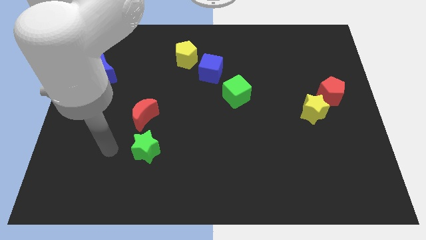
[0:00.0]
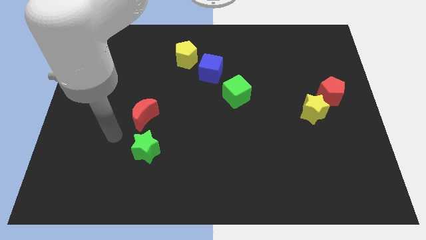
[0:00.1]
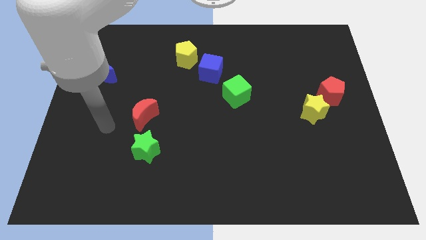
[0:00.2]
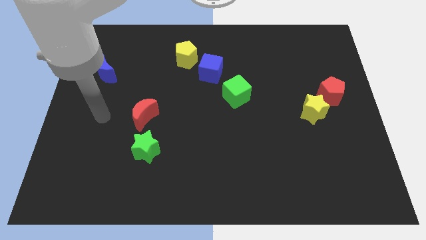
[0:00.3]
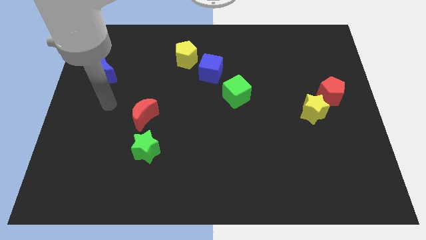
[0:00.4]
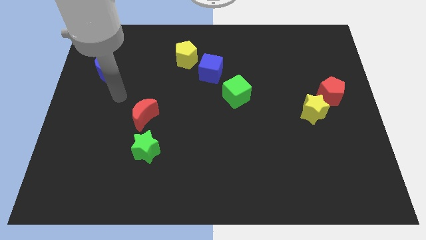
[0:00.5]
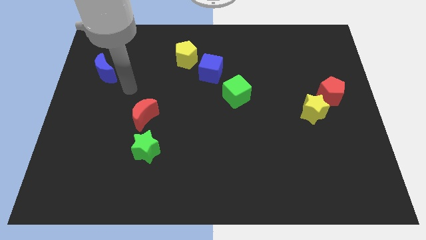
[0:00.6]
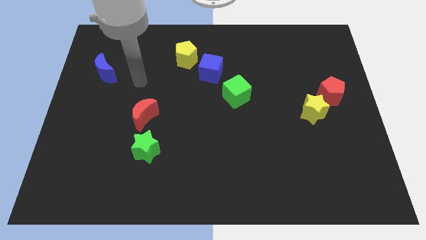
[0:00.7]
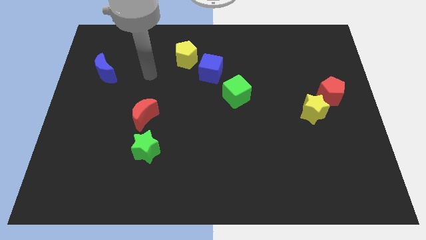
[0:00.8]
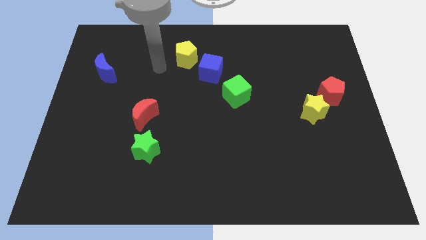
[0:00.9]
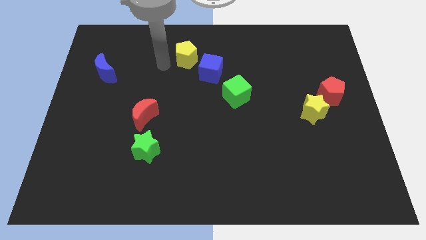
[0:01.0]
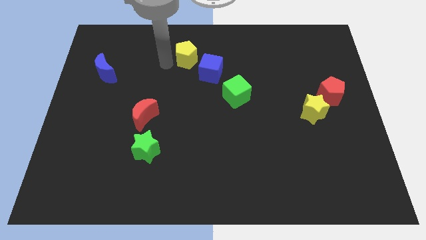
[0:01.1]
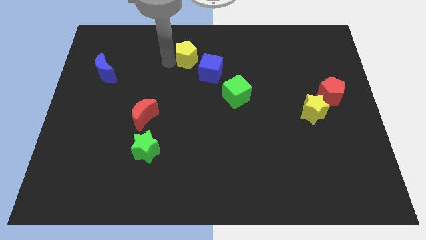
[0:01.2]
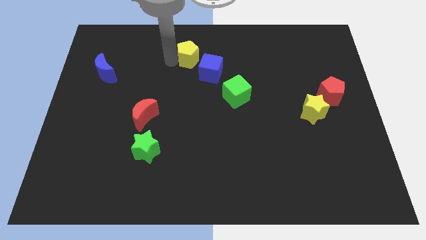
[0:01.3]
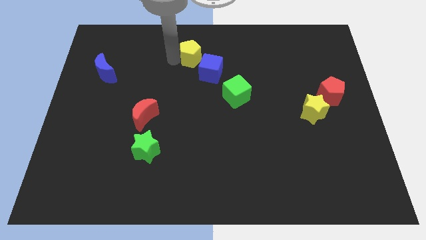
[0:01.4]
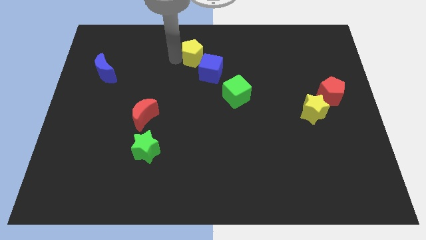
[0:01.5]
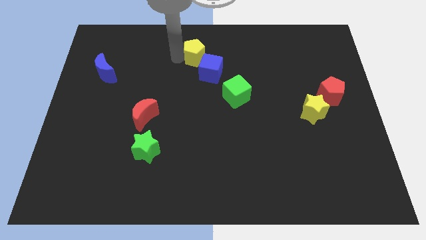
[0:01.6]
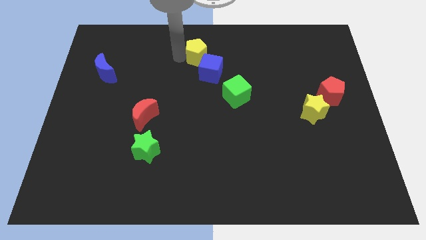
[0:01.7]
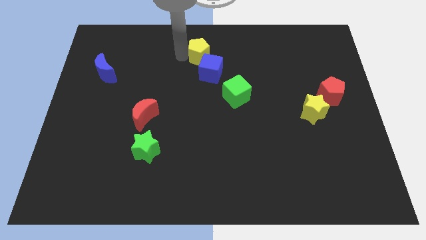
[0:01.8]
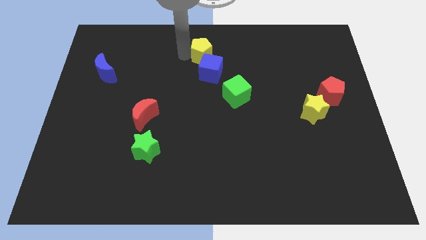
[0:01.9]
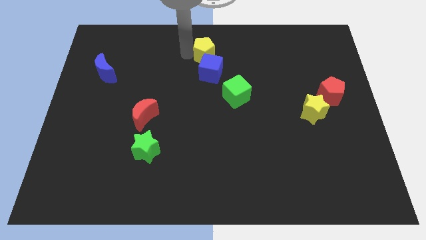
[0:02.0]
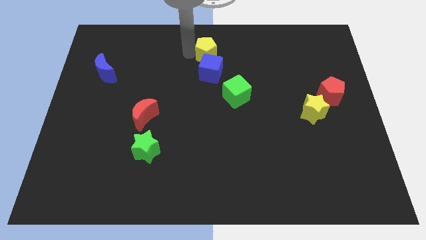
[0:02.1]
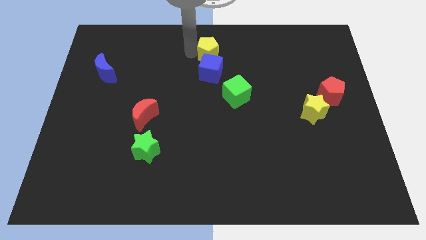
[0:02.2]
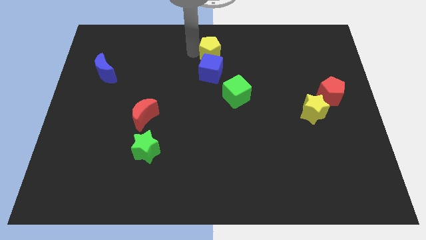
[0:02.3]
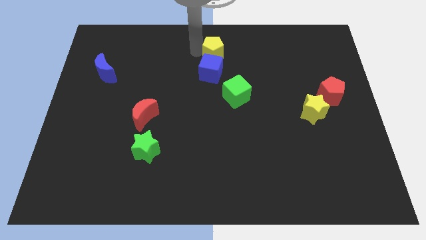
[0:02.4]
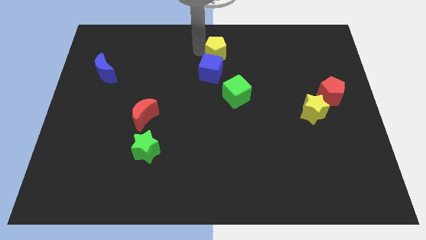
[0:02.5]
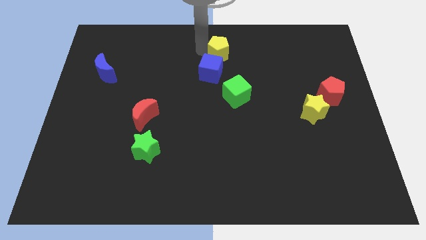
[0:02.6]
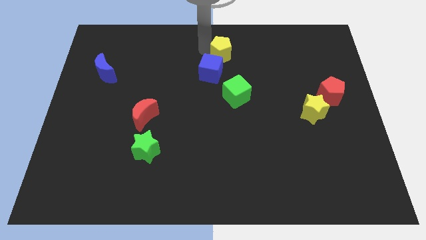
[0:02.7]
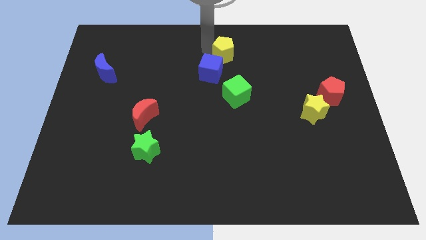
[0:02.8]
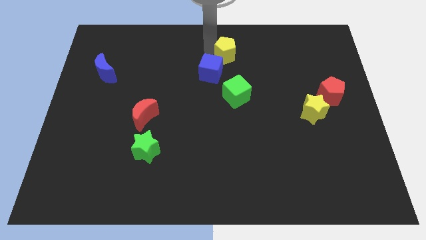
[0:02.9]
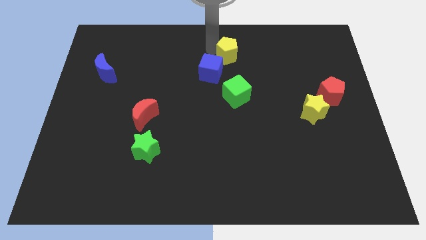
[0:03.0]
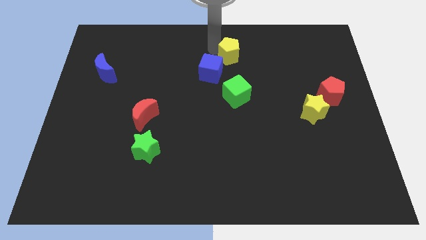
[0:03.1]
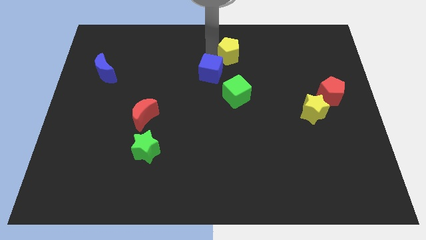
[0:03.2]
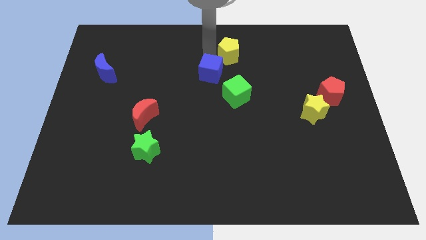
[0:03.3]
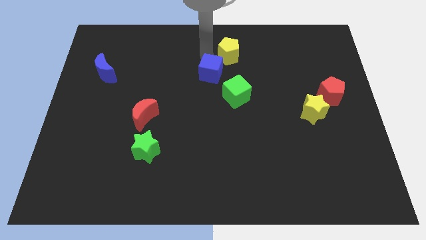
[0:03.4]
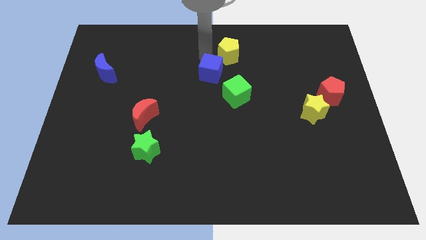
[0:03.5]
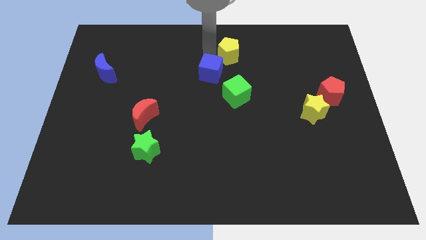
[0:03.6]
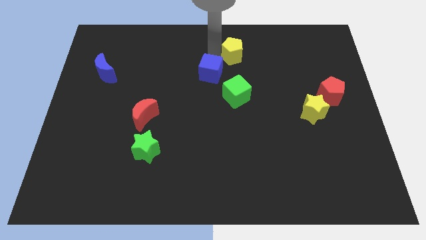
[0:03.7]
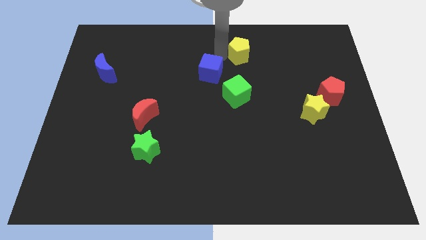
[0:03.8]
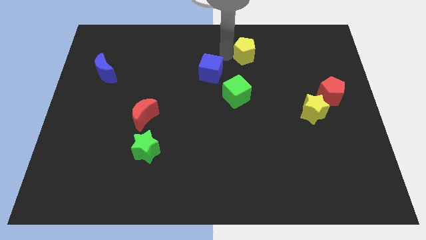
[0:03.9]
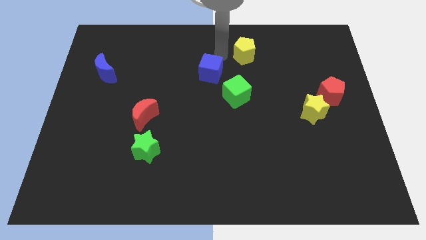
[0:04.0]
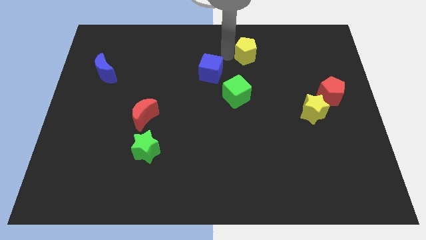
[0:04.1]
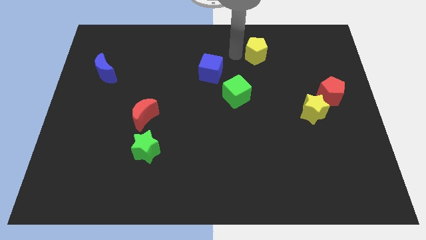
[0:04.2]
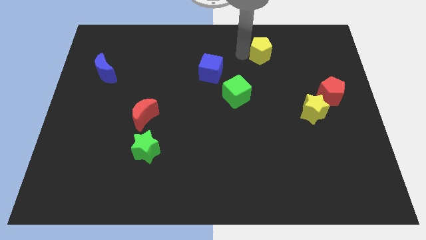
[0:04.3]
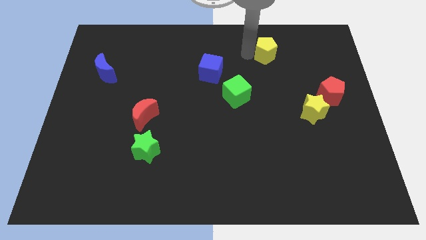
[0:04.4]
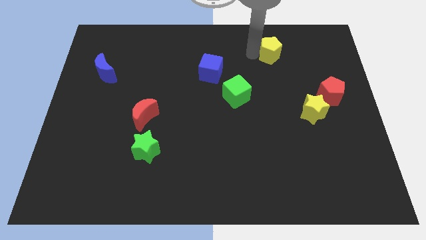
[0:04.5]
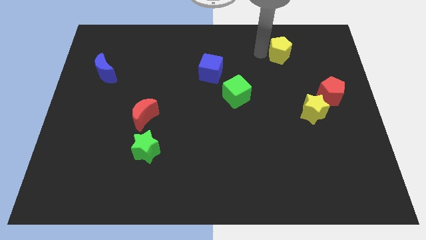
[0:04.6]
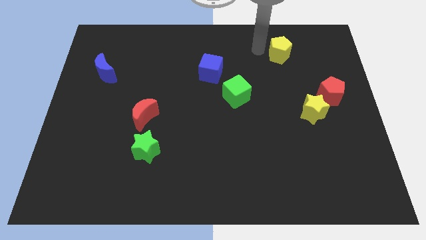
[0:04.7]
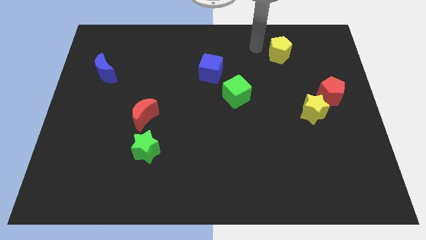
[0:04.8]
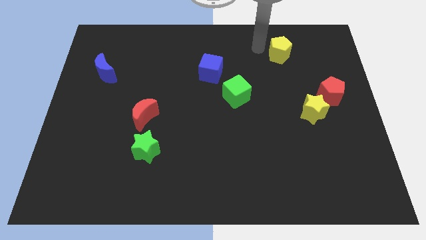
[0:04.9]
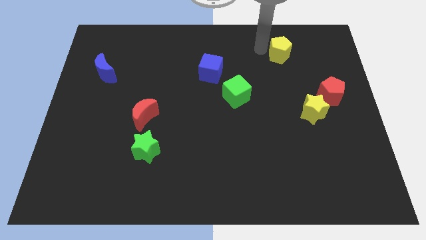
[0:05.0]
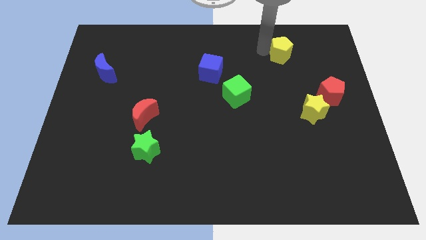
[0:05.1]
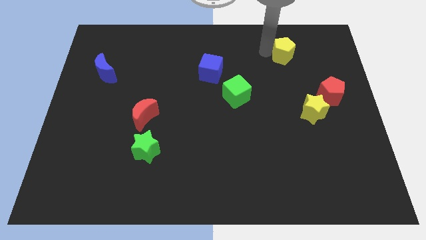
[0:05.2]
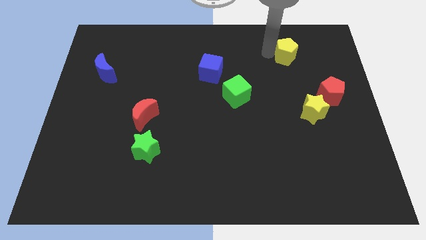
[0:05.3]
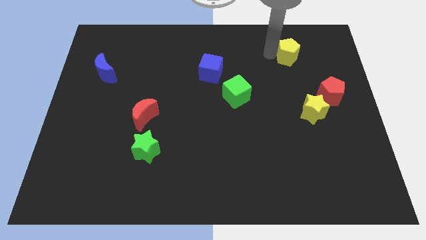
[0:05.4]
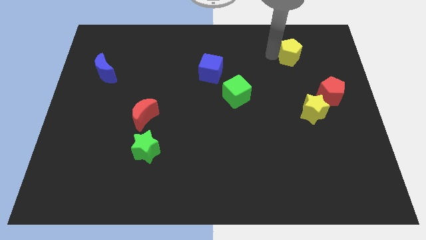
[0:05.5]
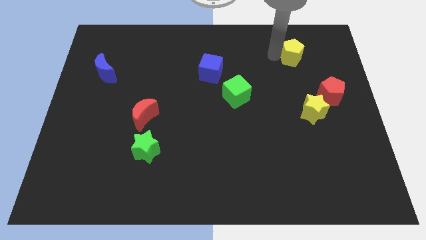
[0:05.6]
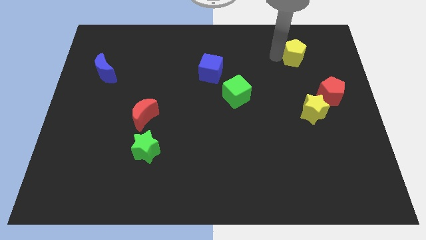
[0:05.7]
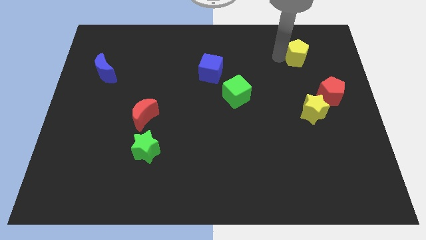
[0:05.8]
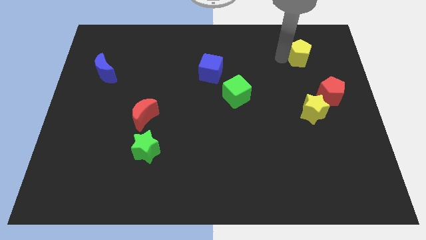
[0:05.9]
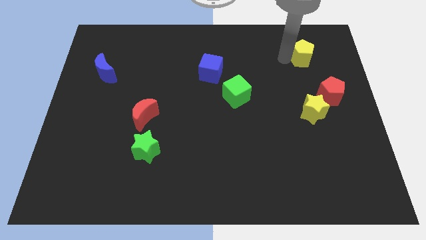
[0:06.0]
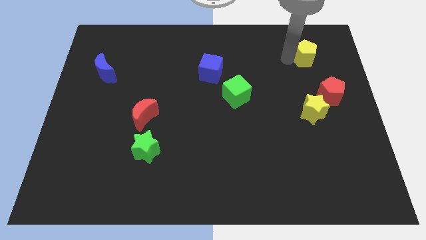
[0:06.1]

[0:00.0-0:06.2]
put the yellow pentagon to the top side of the red pentagon

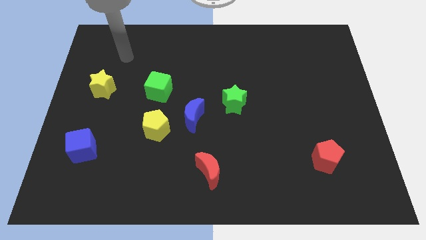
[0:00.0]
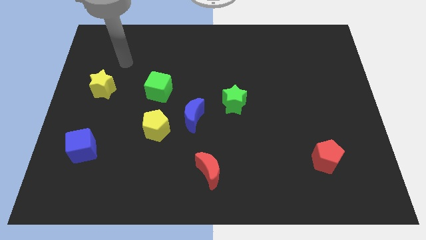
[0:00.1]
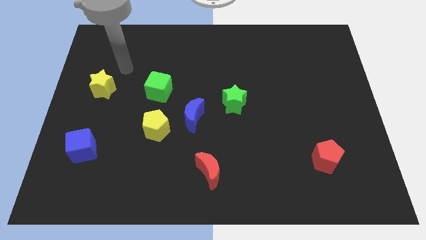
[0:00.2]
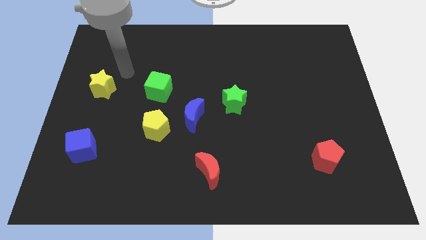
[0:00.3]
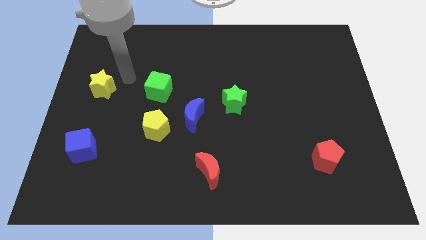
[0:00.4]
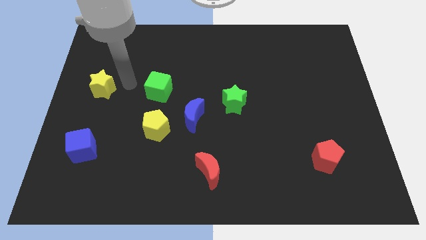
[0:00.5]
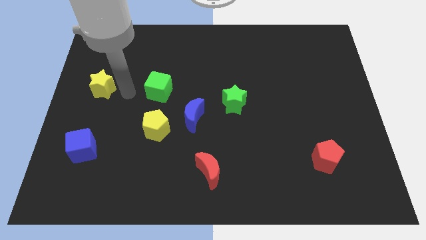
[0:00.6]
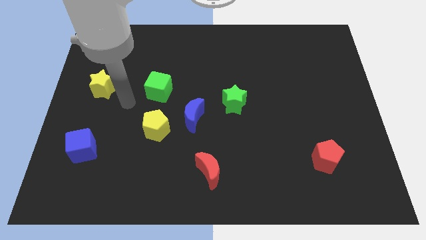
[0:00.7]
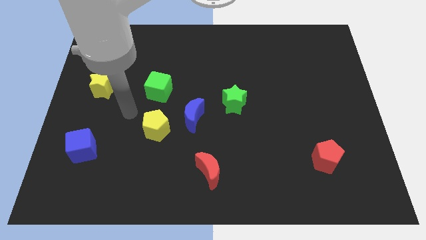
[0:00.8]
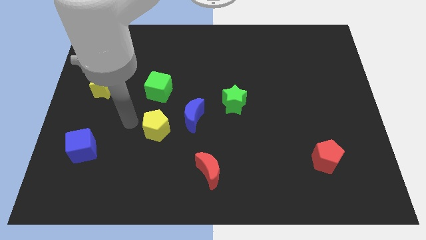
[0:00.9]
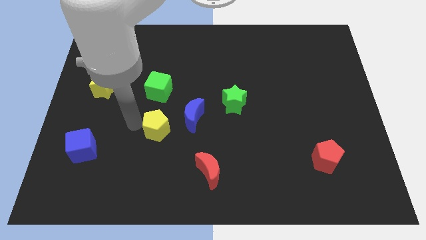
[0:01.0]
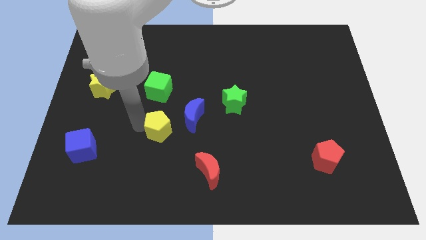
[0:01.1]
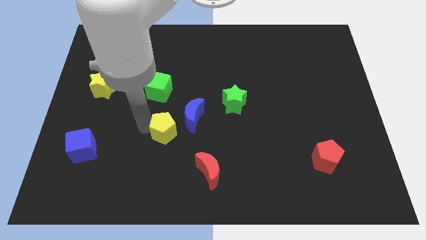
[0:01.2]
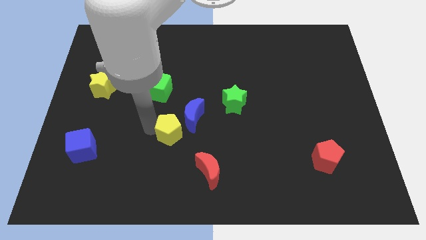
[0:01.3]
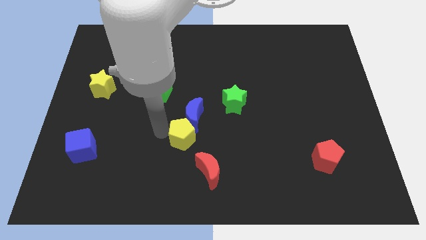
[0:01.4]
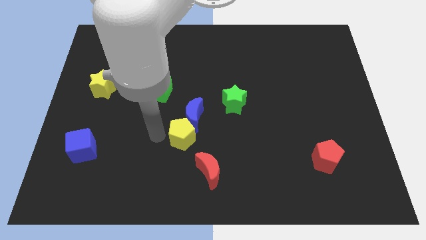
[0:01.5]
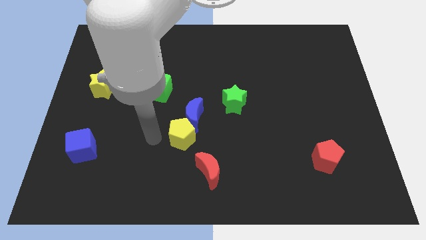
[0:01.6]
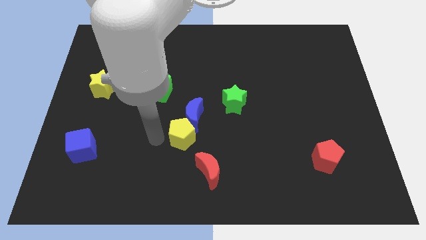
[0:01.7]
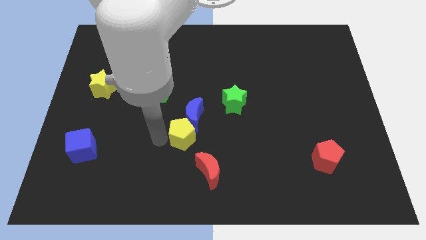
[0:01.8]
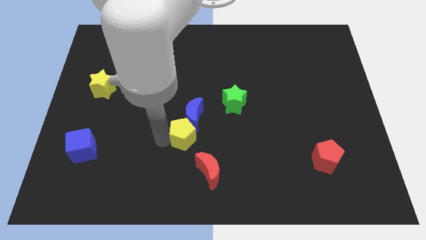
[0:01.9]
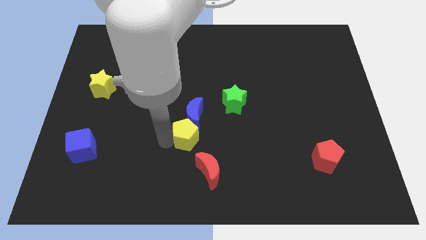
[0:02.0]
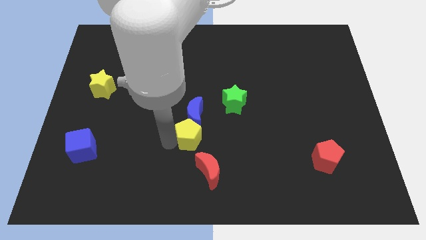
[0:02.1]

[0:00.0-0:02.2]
move the yellow pentagon to the bottom right side of the blue moon
